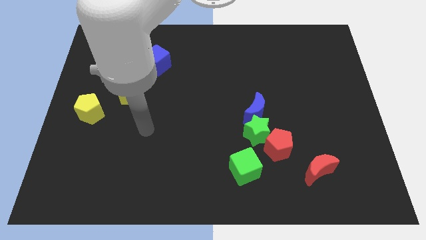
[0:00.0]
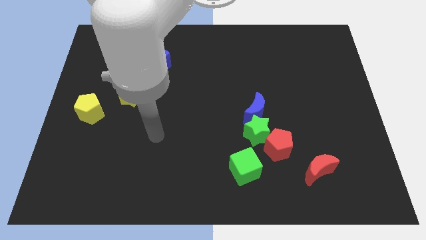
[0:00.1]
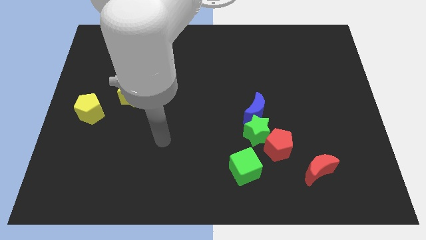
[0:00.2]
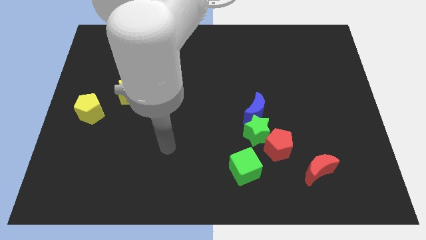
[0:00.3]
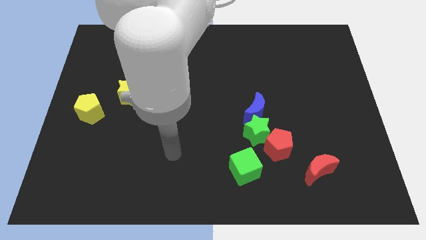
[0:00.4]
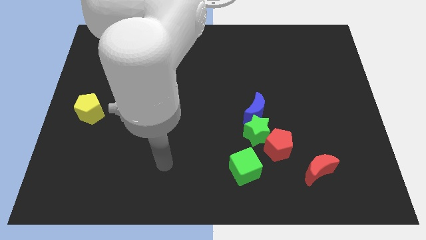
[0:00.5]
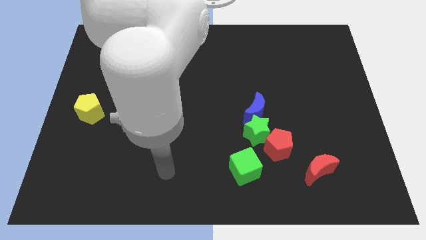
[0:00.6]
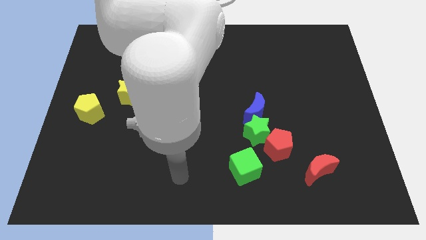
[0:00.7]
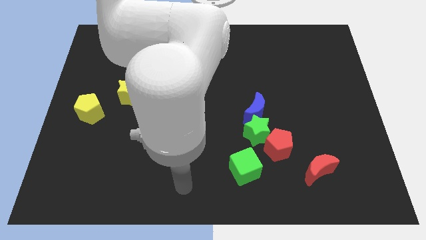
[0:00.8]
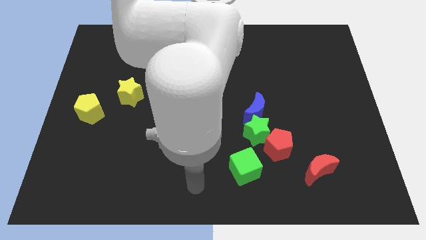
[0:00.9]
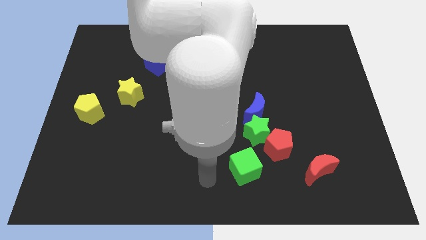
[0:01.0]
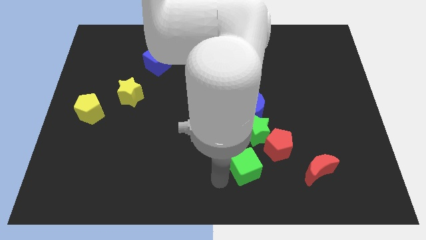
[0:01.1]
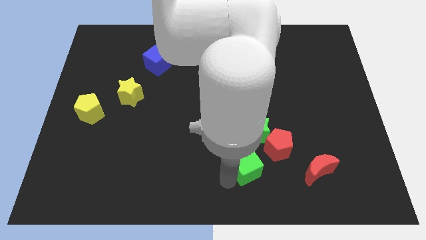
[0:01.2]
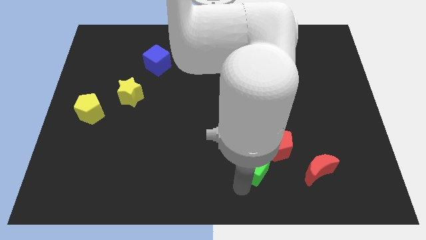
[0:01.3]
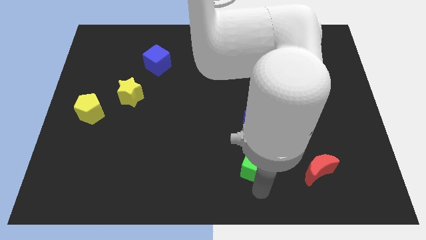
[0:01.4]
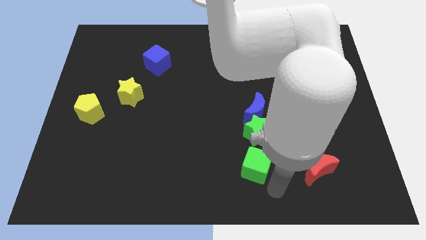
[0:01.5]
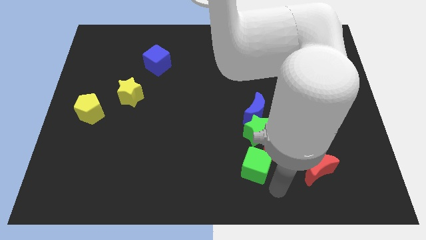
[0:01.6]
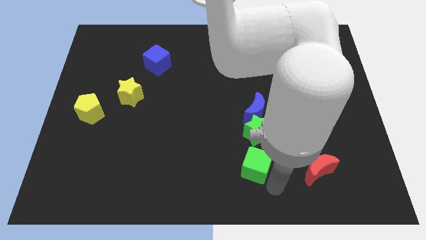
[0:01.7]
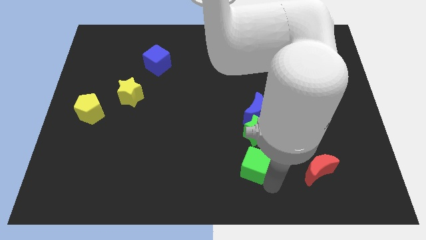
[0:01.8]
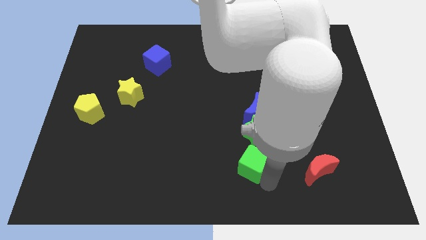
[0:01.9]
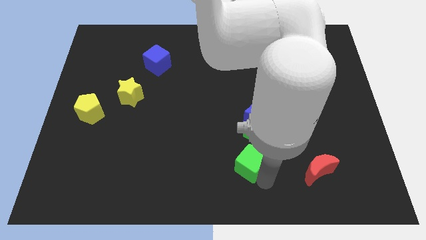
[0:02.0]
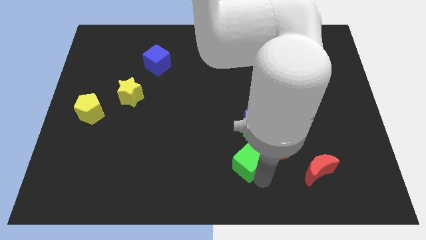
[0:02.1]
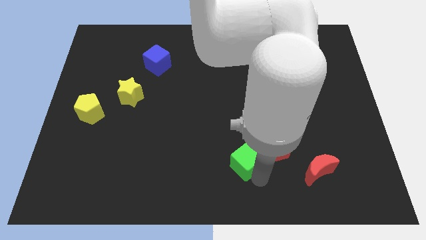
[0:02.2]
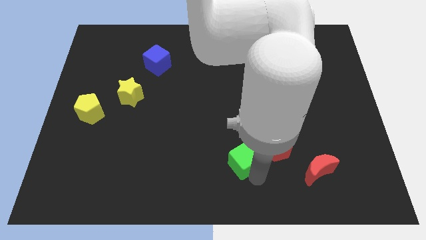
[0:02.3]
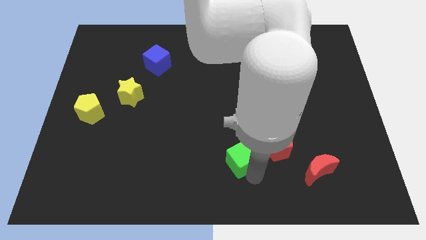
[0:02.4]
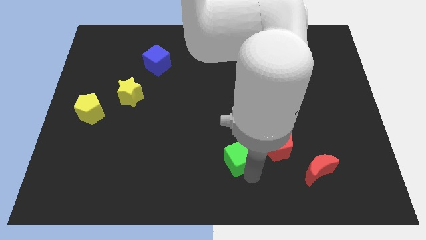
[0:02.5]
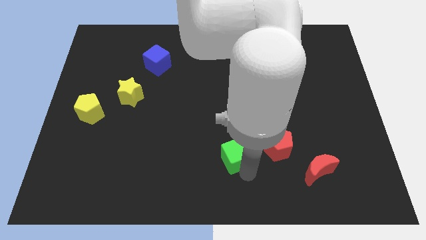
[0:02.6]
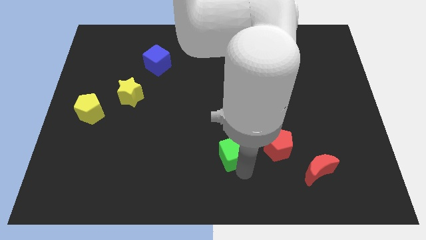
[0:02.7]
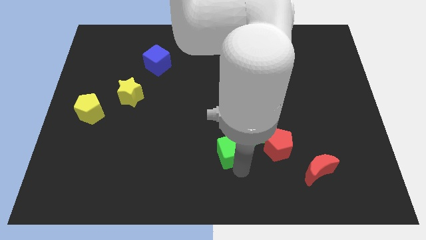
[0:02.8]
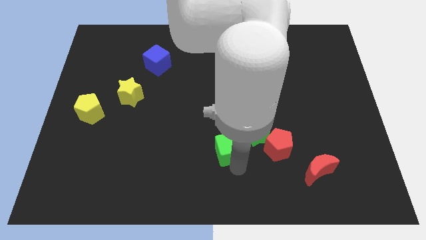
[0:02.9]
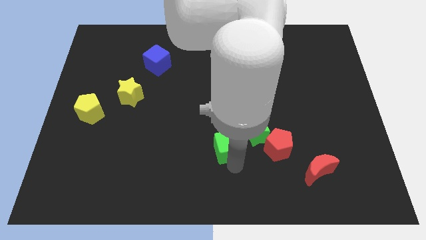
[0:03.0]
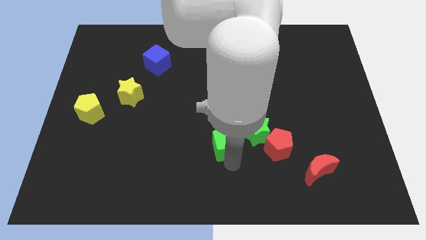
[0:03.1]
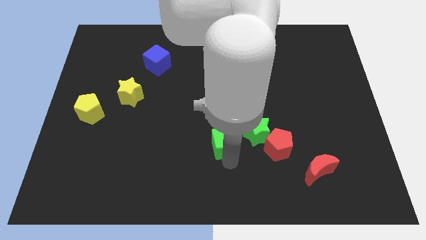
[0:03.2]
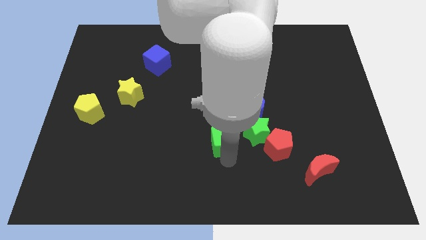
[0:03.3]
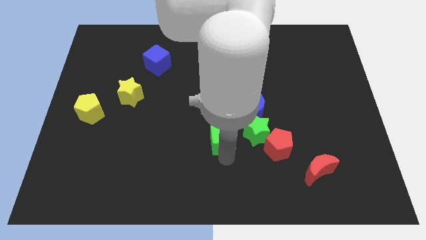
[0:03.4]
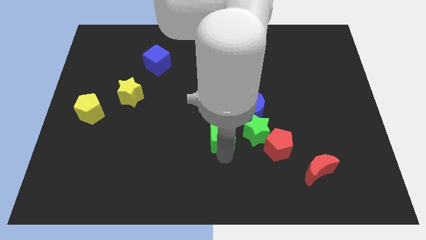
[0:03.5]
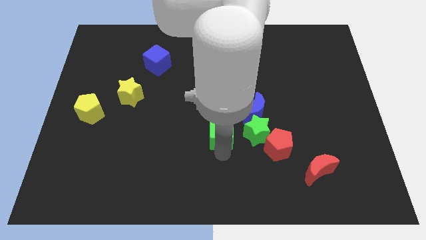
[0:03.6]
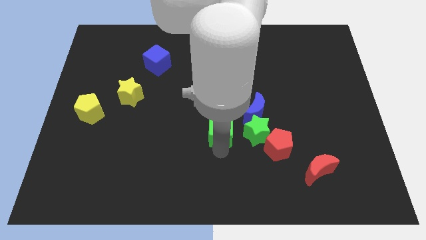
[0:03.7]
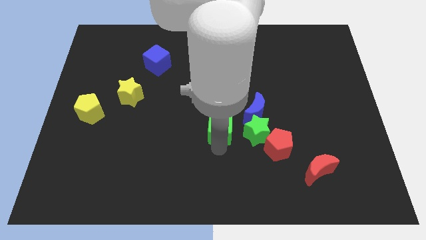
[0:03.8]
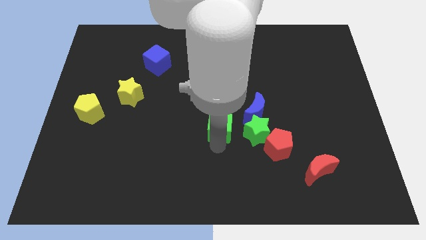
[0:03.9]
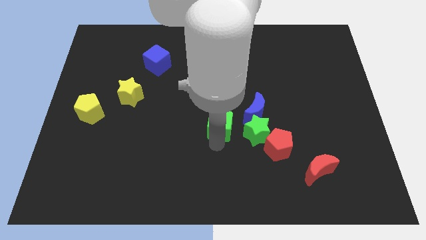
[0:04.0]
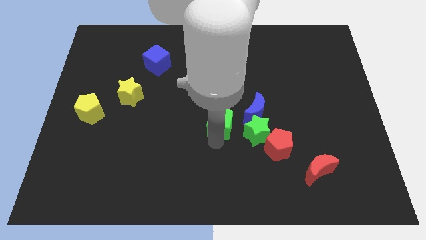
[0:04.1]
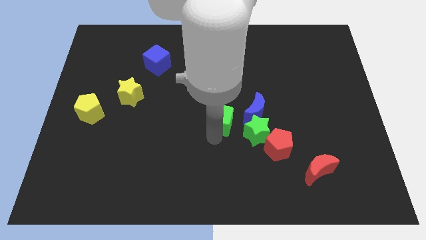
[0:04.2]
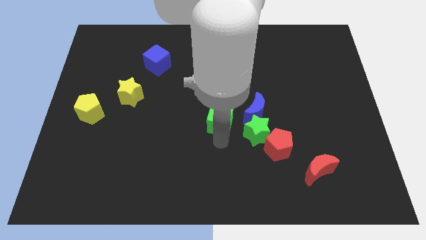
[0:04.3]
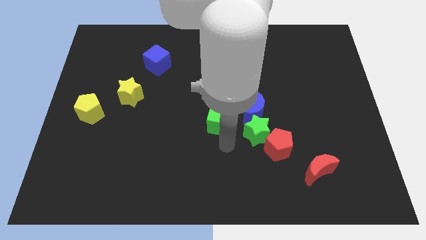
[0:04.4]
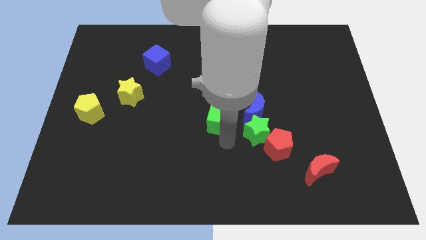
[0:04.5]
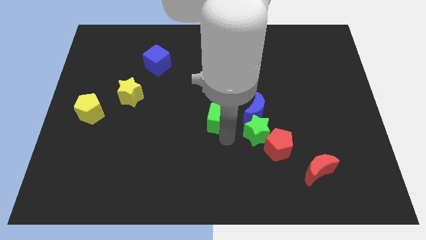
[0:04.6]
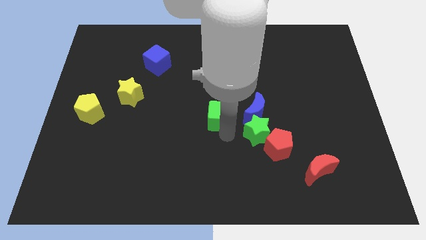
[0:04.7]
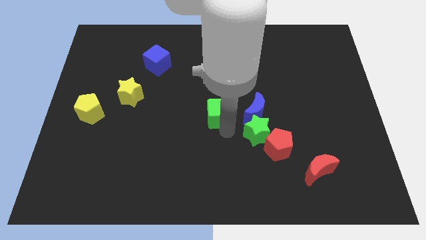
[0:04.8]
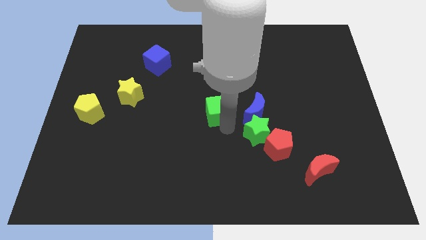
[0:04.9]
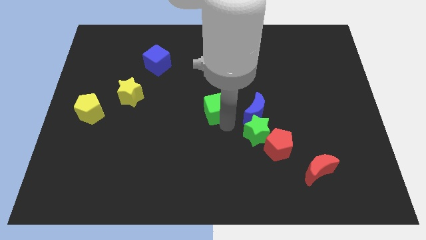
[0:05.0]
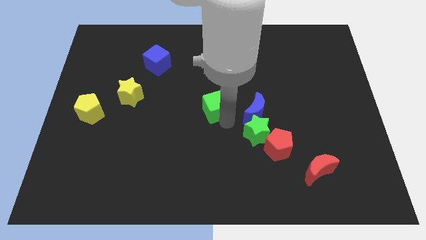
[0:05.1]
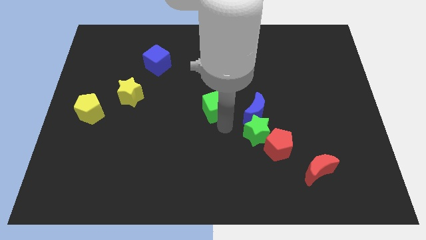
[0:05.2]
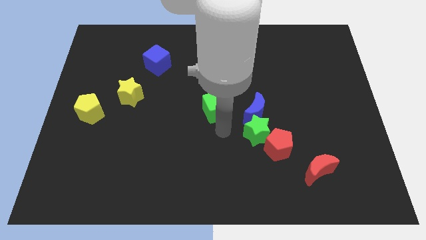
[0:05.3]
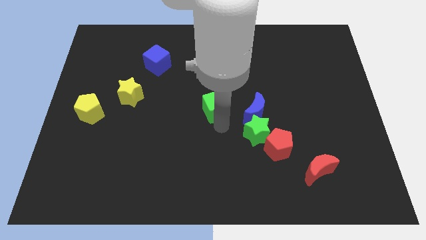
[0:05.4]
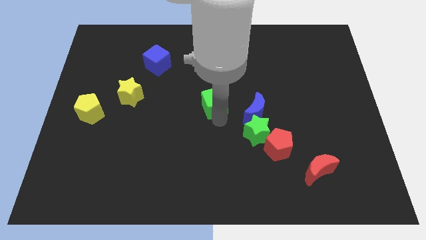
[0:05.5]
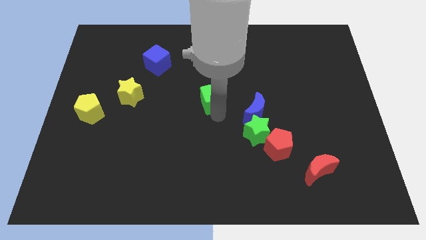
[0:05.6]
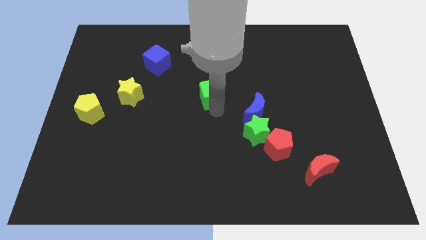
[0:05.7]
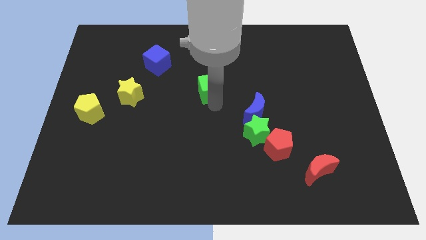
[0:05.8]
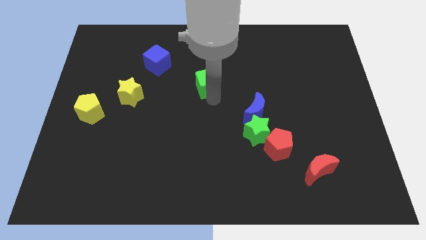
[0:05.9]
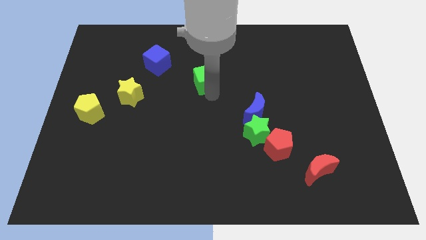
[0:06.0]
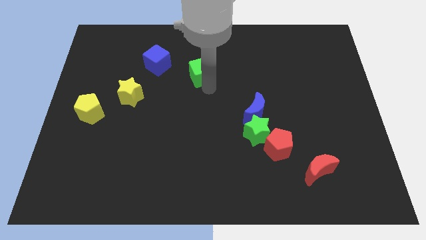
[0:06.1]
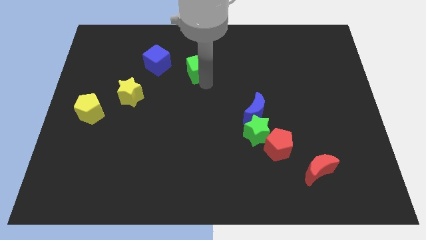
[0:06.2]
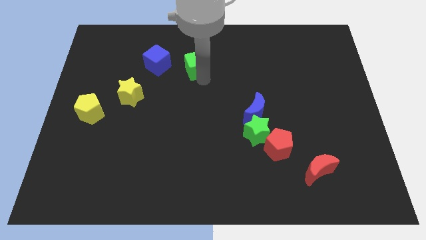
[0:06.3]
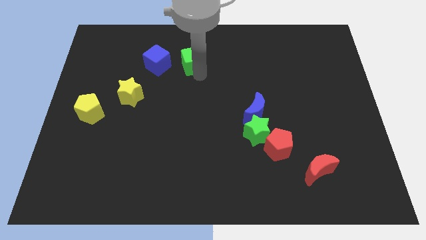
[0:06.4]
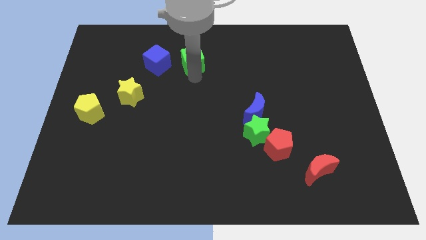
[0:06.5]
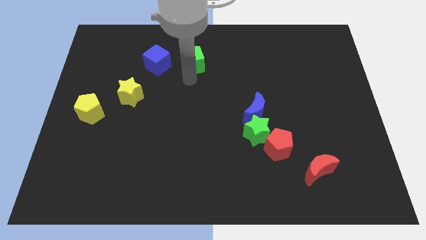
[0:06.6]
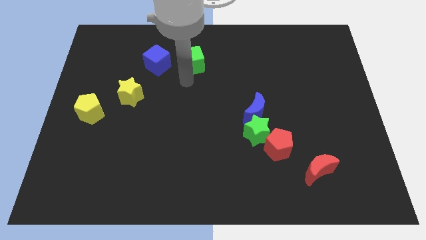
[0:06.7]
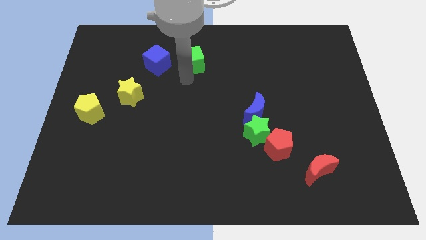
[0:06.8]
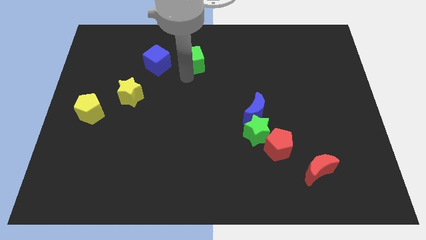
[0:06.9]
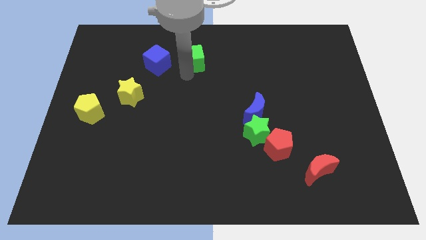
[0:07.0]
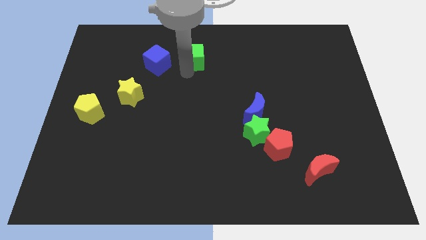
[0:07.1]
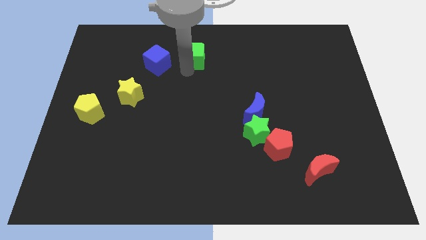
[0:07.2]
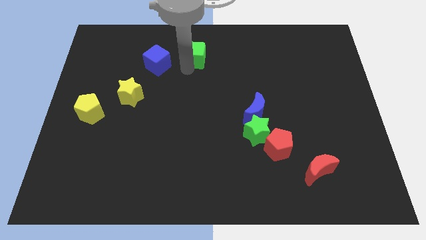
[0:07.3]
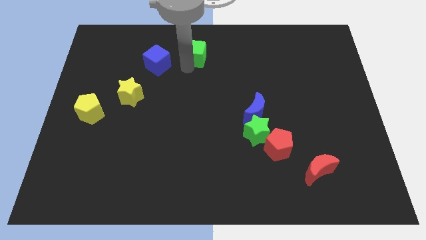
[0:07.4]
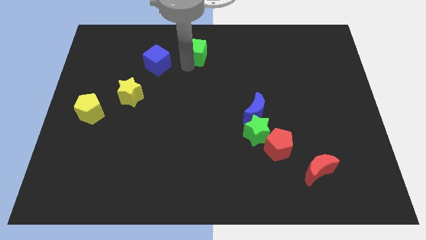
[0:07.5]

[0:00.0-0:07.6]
move the green cube to the top side
